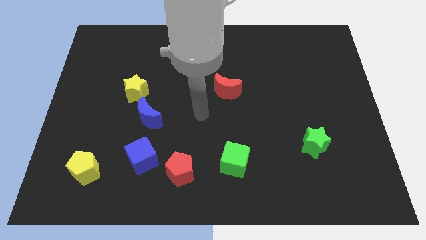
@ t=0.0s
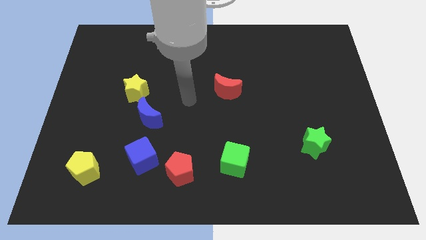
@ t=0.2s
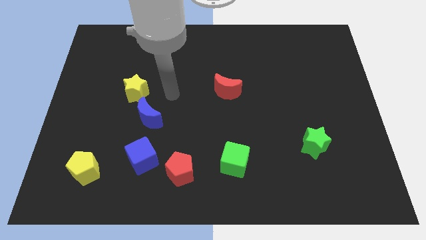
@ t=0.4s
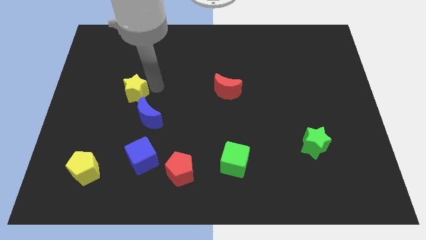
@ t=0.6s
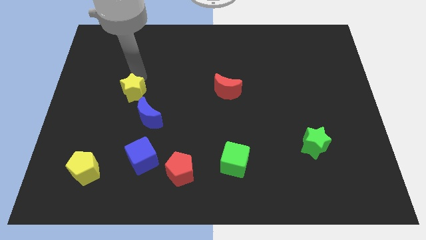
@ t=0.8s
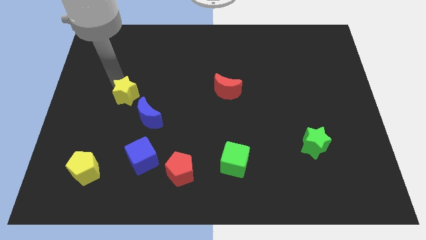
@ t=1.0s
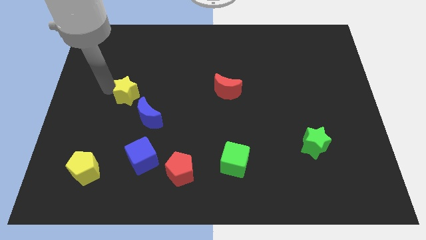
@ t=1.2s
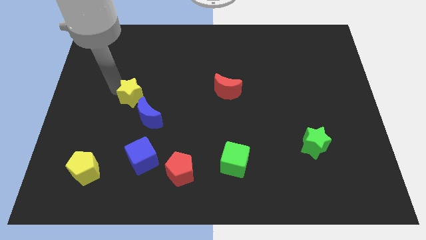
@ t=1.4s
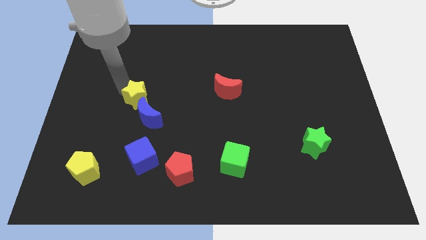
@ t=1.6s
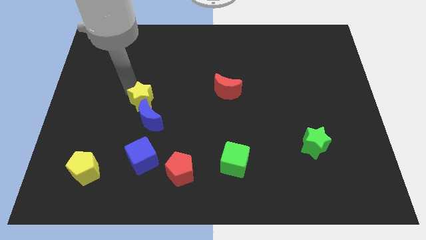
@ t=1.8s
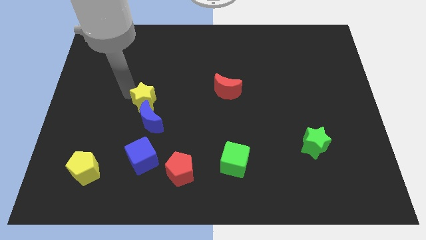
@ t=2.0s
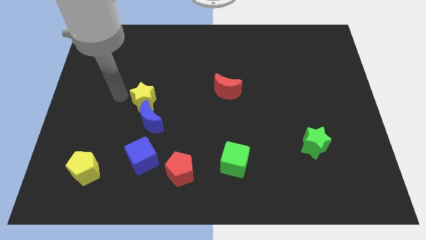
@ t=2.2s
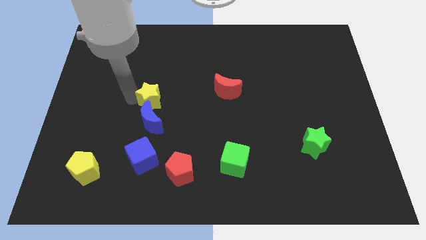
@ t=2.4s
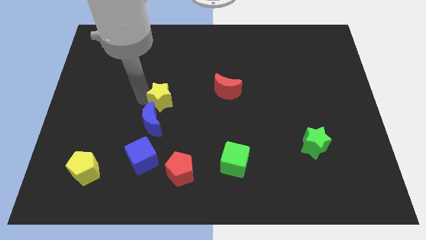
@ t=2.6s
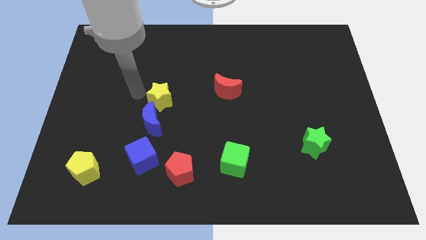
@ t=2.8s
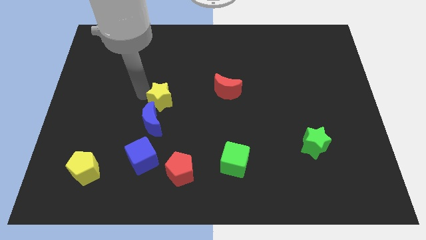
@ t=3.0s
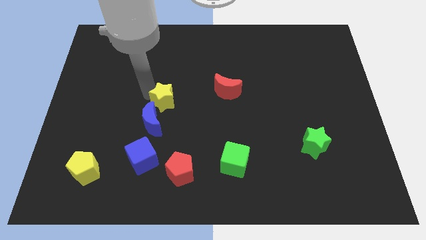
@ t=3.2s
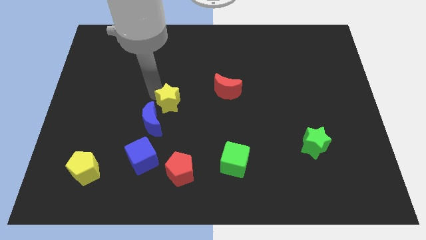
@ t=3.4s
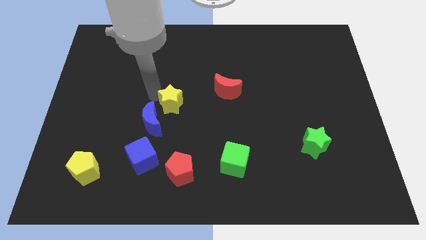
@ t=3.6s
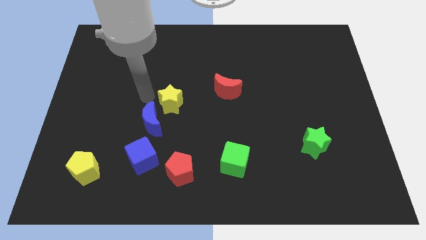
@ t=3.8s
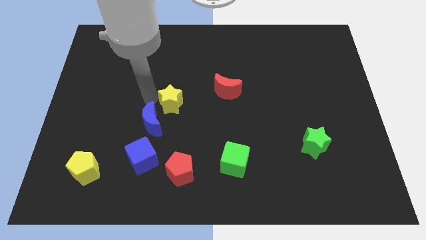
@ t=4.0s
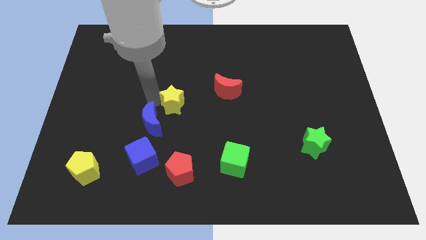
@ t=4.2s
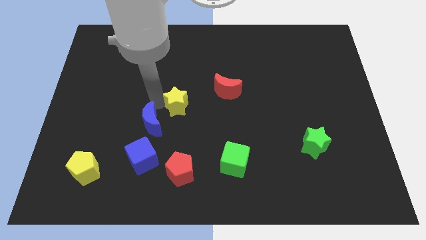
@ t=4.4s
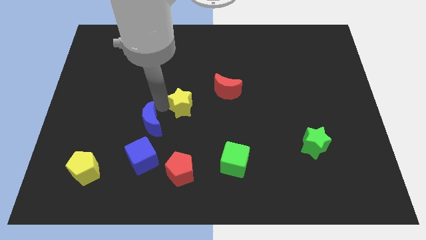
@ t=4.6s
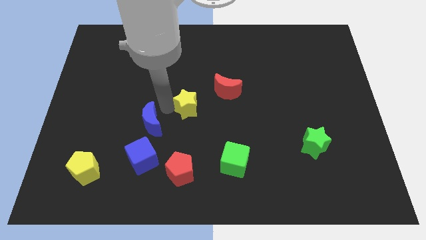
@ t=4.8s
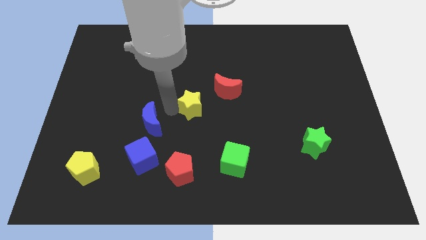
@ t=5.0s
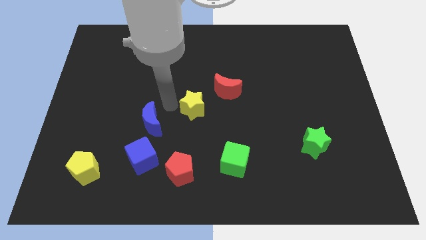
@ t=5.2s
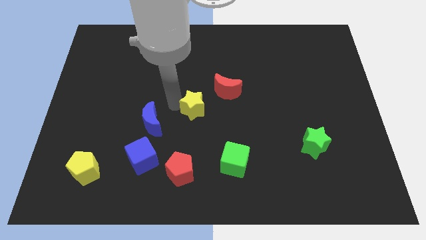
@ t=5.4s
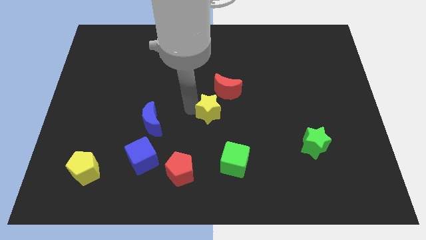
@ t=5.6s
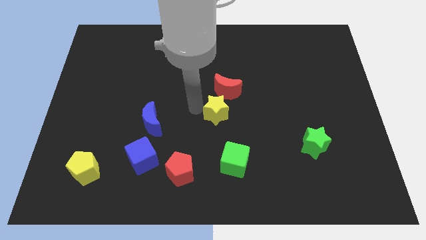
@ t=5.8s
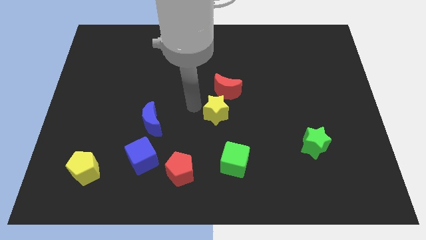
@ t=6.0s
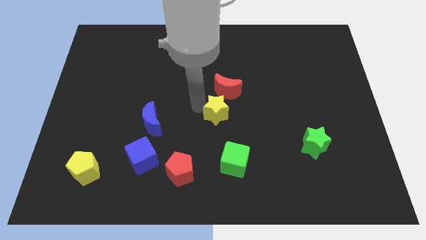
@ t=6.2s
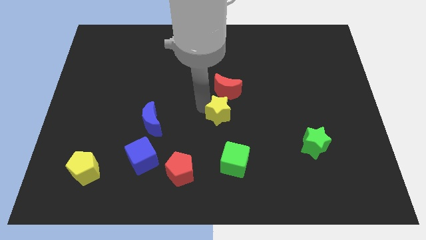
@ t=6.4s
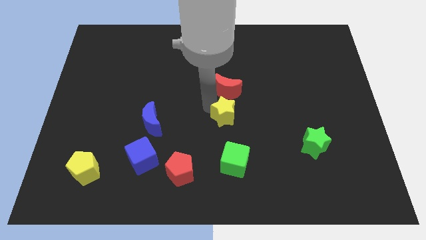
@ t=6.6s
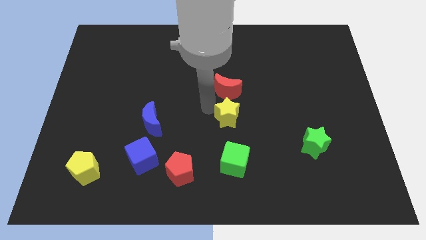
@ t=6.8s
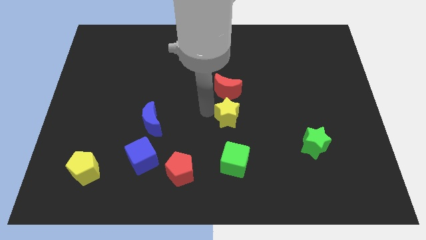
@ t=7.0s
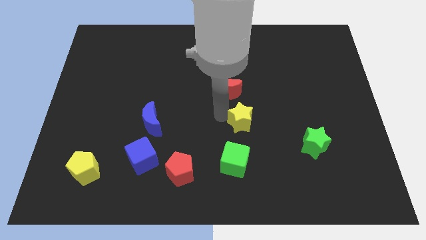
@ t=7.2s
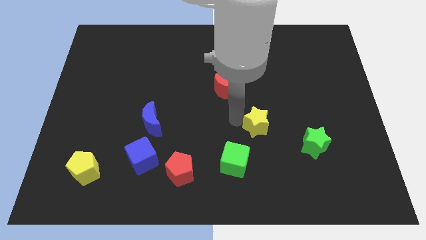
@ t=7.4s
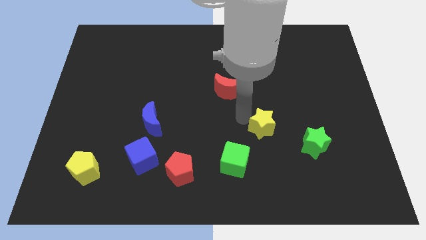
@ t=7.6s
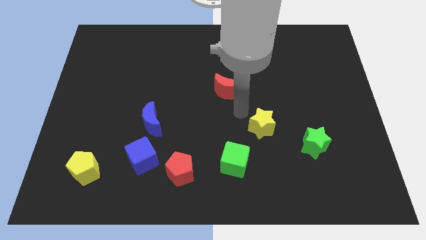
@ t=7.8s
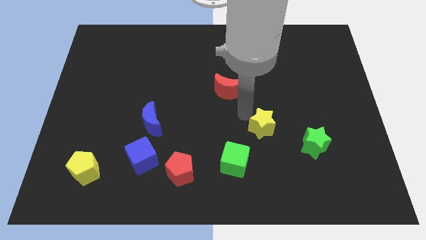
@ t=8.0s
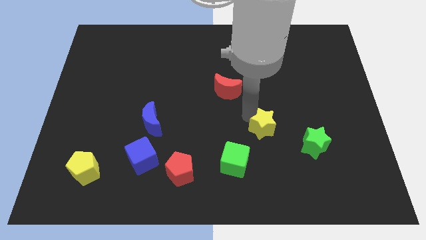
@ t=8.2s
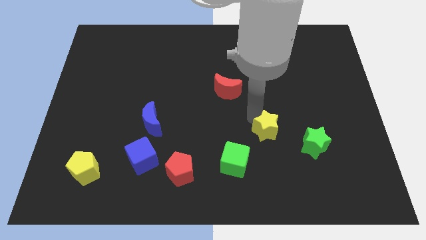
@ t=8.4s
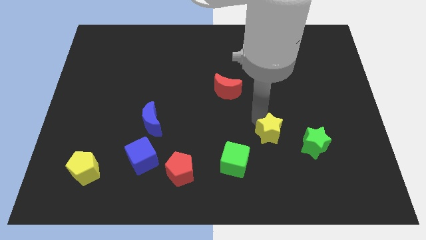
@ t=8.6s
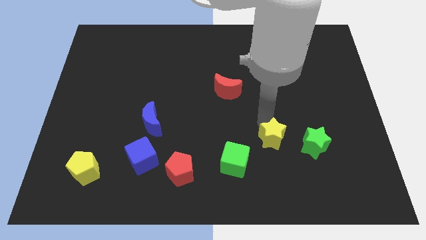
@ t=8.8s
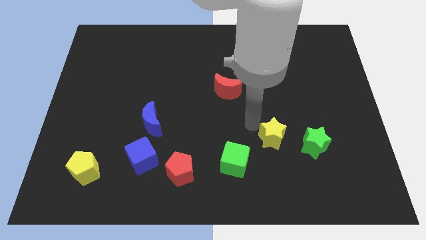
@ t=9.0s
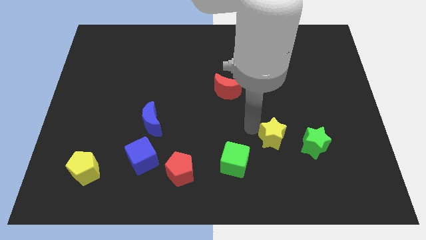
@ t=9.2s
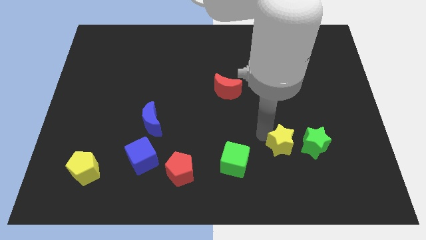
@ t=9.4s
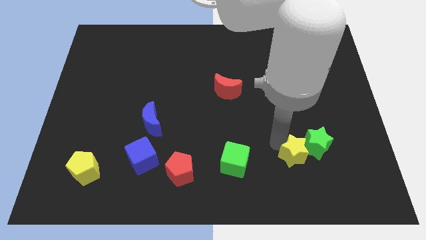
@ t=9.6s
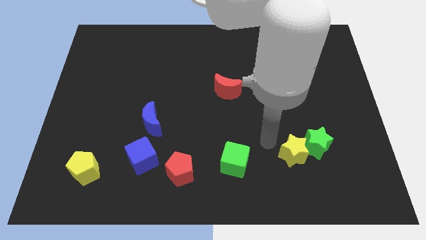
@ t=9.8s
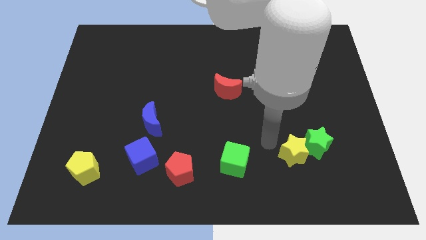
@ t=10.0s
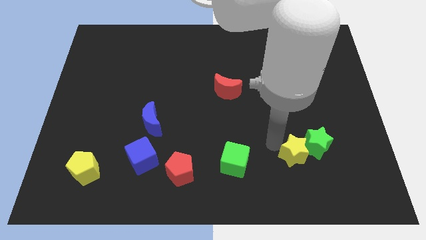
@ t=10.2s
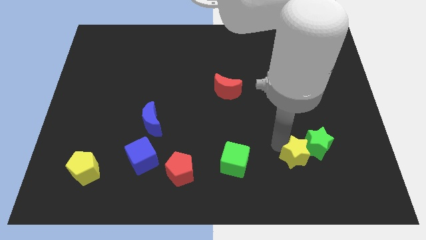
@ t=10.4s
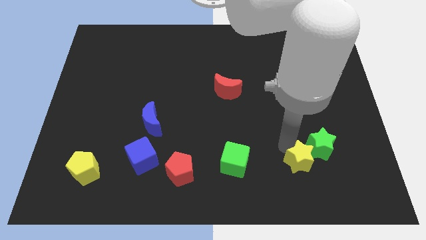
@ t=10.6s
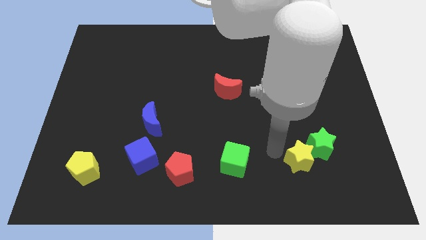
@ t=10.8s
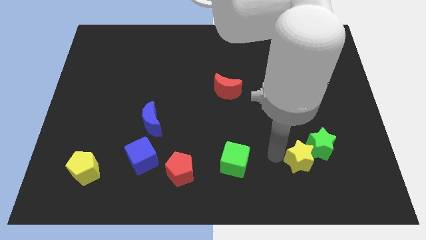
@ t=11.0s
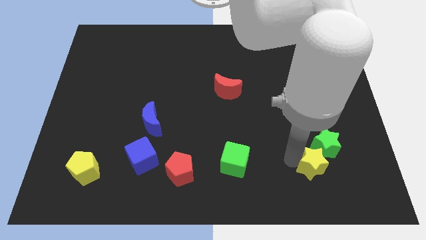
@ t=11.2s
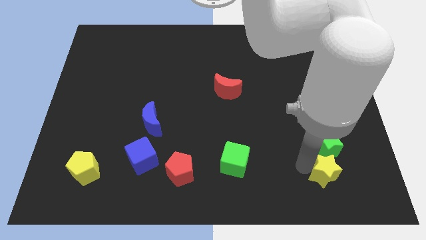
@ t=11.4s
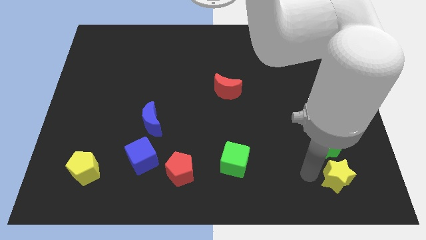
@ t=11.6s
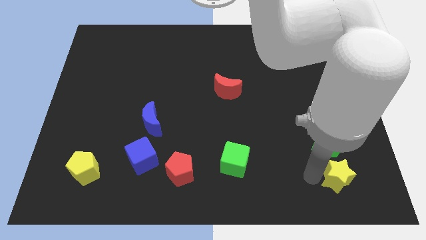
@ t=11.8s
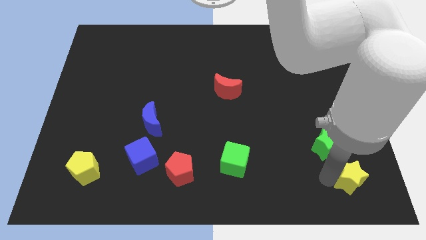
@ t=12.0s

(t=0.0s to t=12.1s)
push the yellow star to the bottom right corner

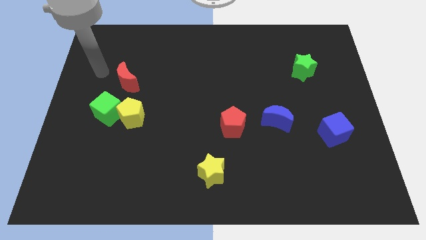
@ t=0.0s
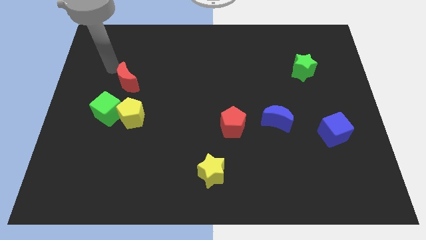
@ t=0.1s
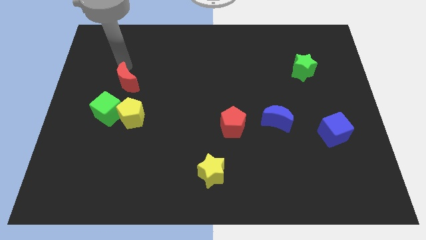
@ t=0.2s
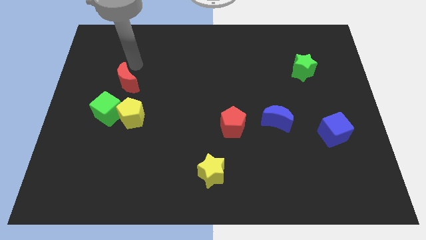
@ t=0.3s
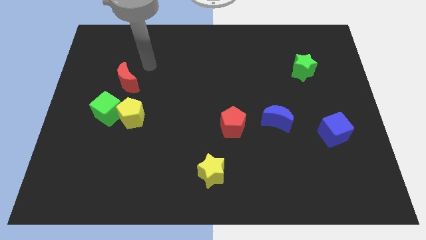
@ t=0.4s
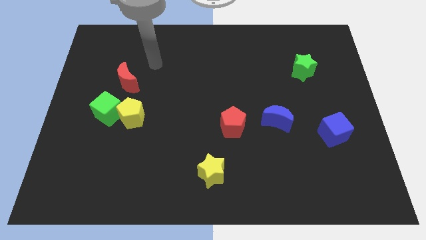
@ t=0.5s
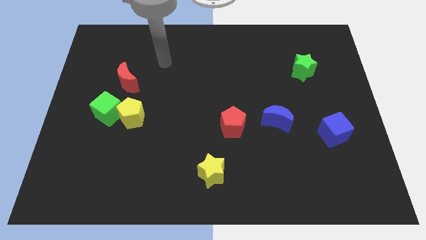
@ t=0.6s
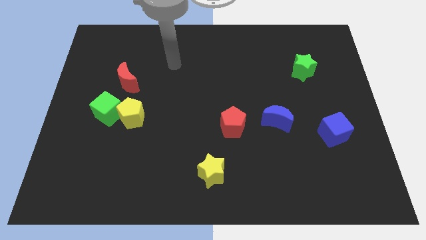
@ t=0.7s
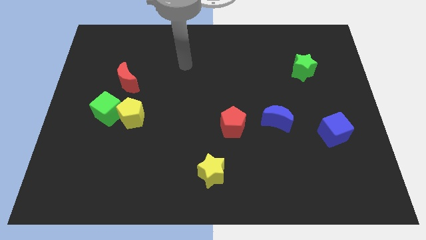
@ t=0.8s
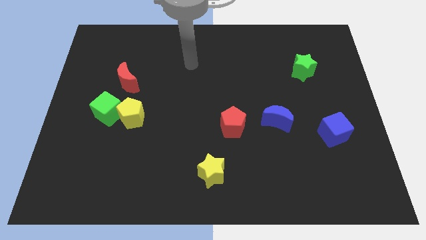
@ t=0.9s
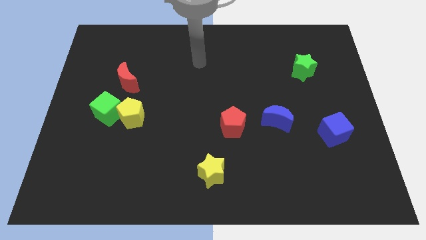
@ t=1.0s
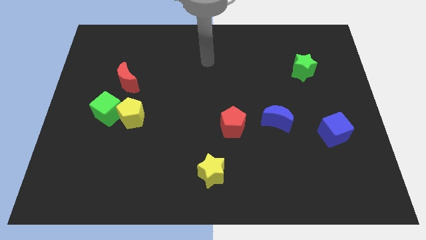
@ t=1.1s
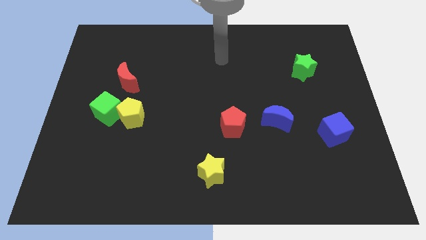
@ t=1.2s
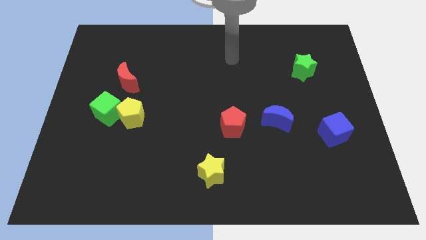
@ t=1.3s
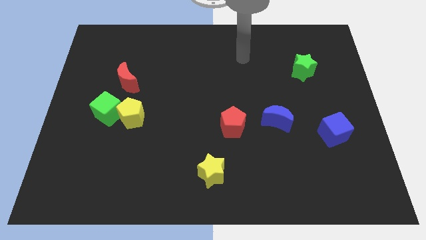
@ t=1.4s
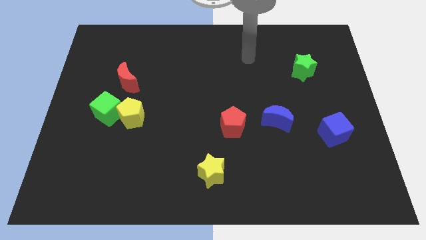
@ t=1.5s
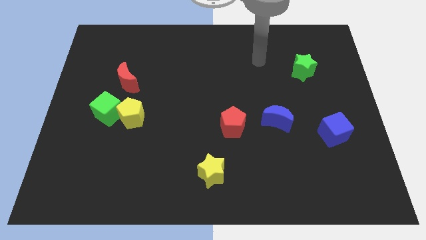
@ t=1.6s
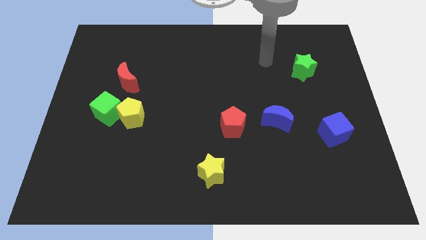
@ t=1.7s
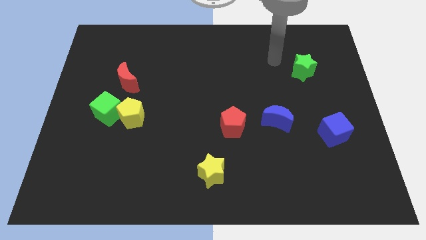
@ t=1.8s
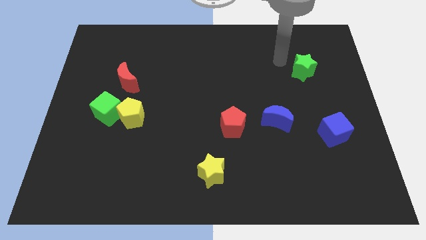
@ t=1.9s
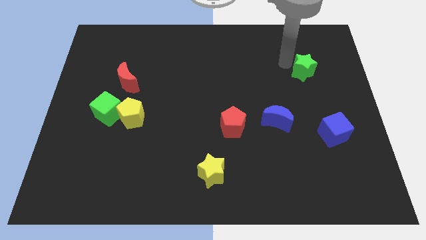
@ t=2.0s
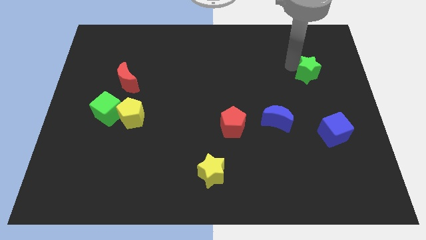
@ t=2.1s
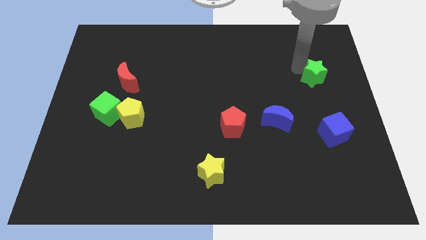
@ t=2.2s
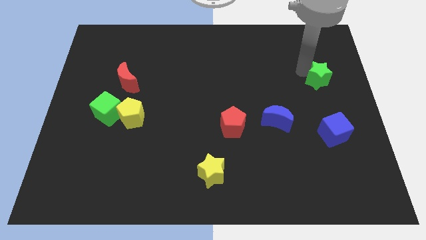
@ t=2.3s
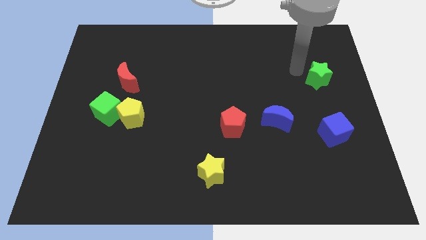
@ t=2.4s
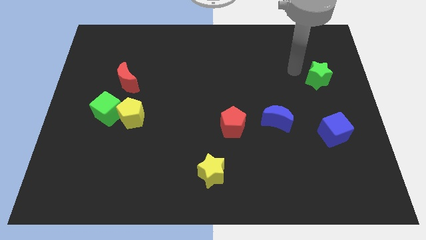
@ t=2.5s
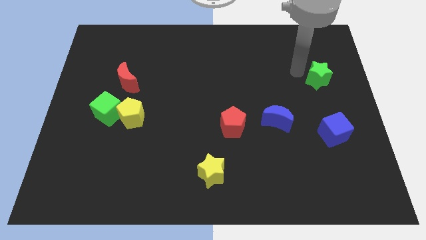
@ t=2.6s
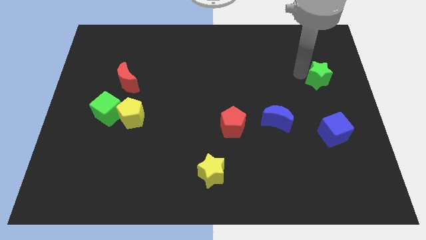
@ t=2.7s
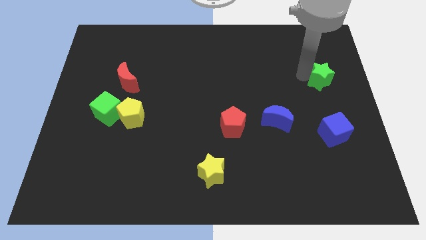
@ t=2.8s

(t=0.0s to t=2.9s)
slide the green star to the right side
